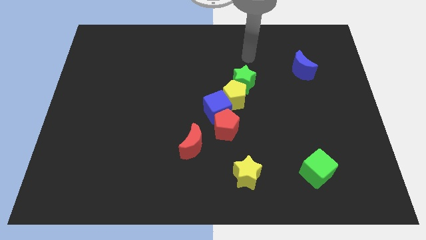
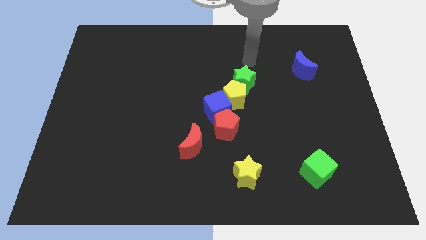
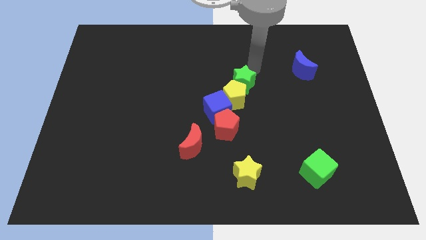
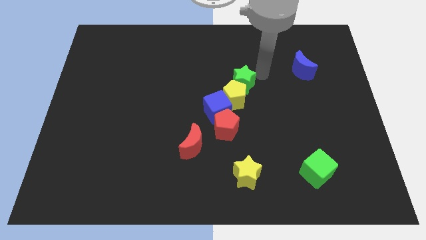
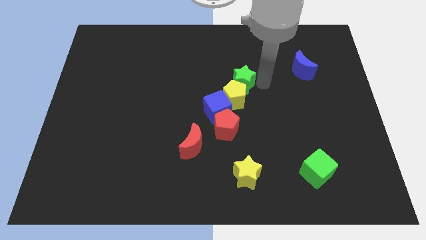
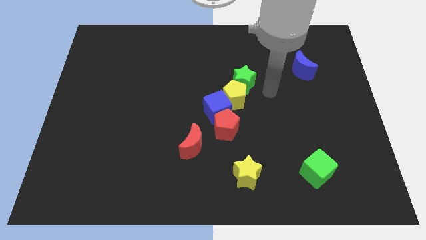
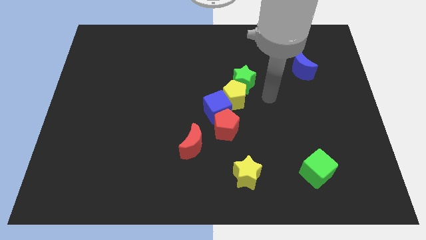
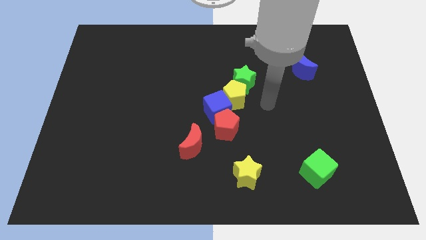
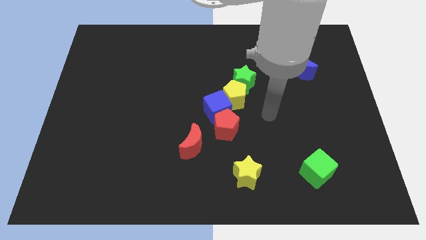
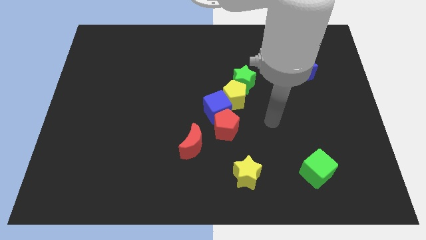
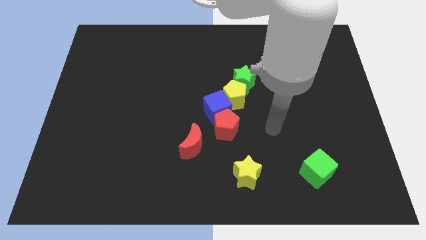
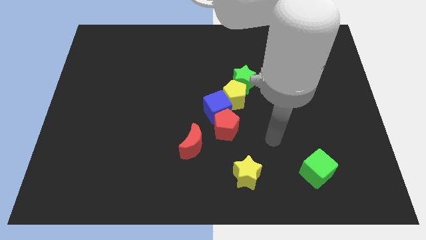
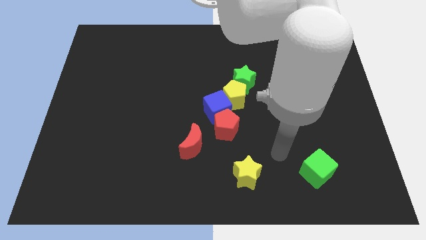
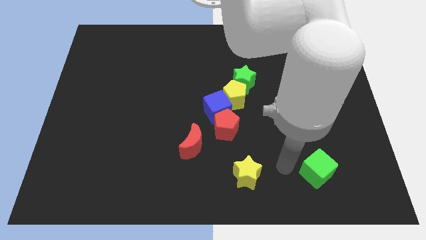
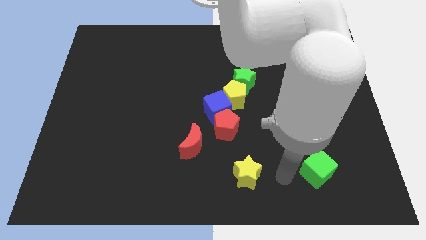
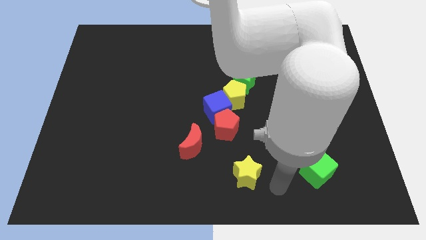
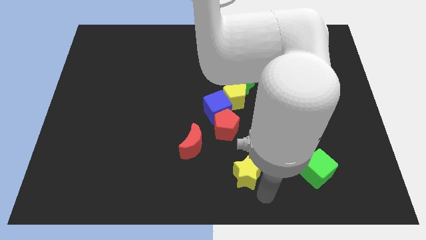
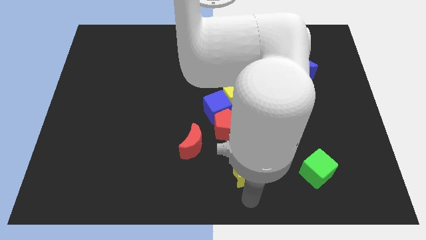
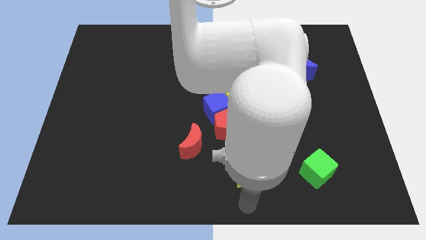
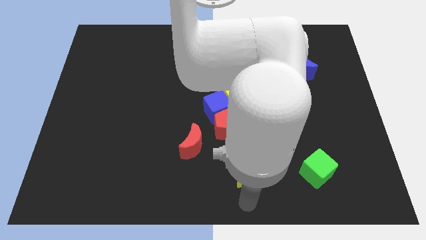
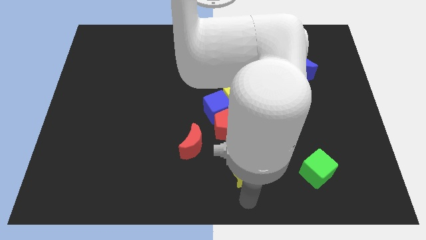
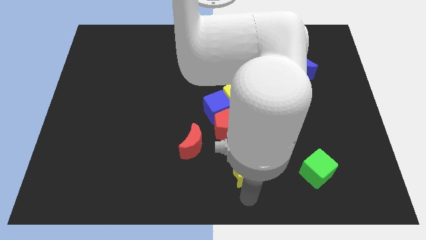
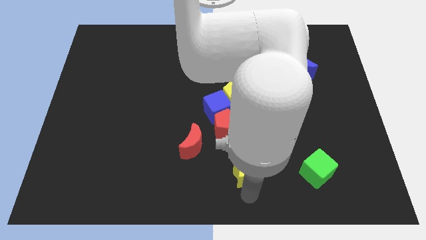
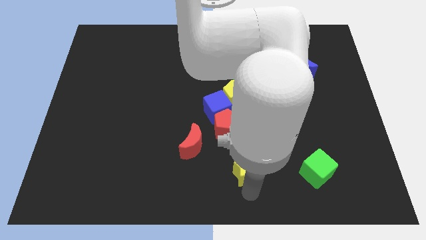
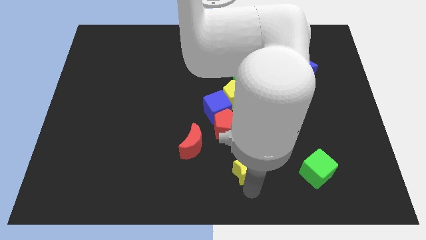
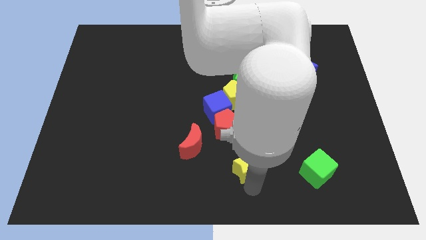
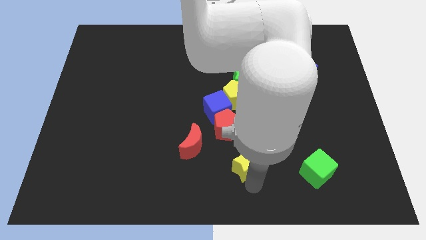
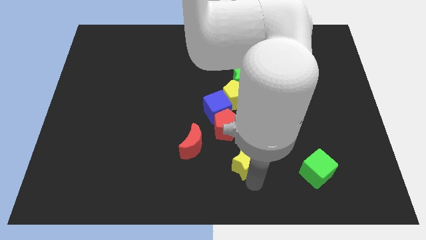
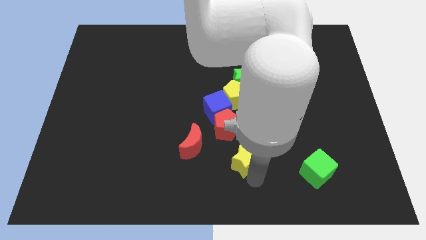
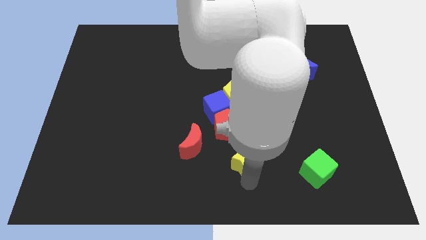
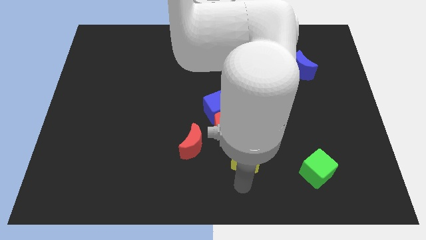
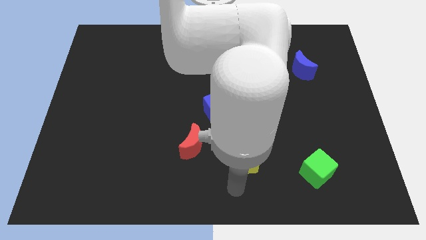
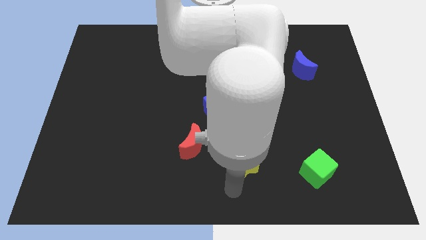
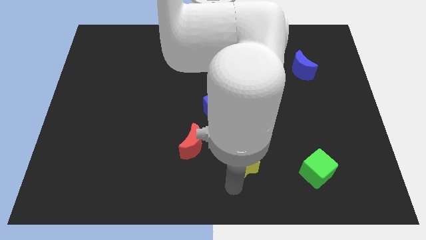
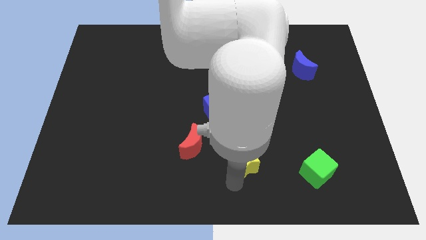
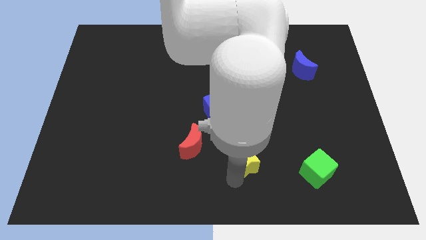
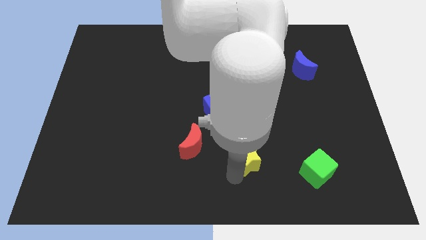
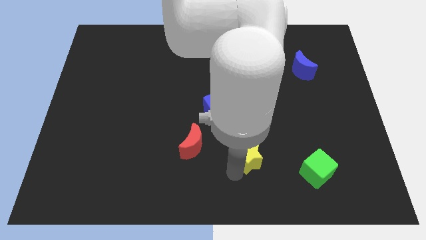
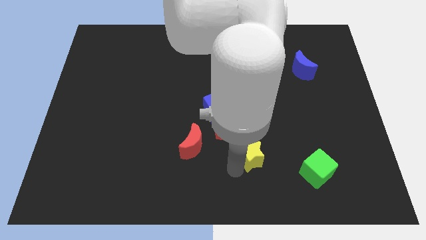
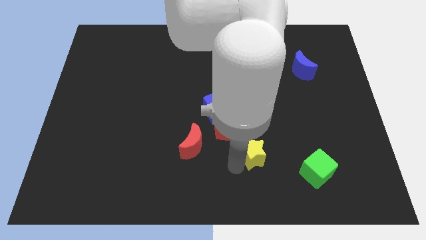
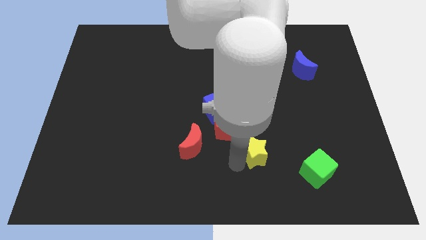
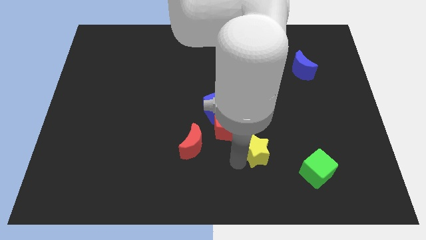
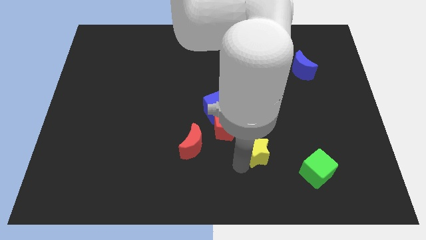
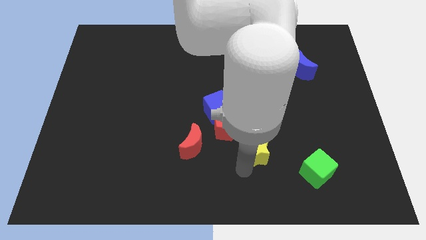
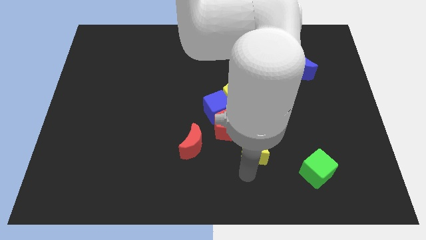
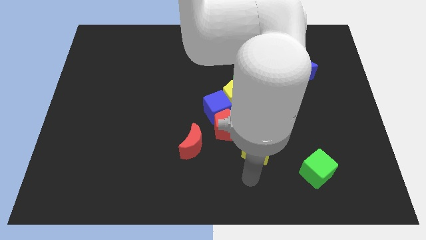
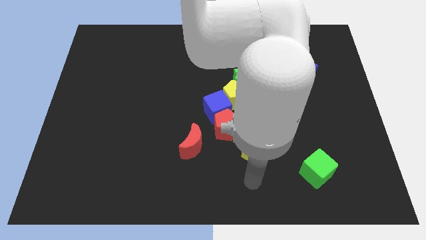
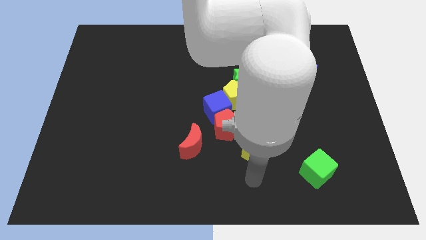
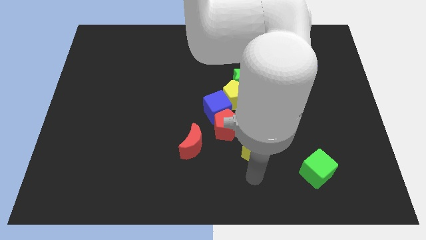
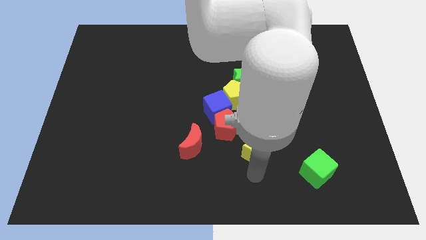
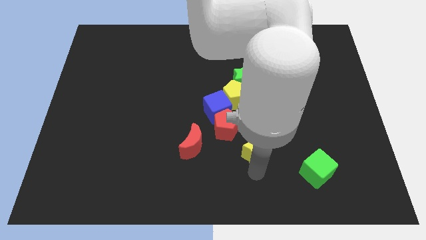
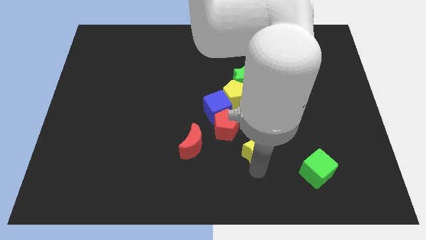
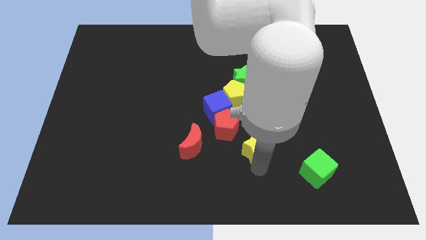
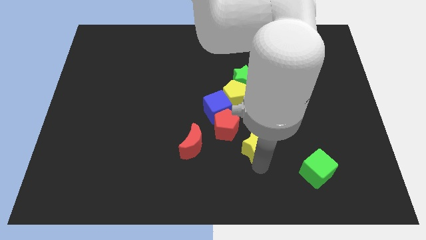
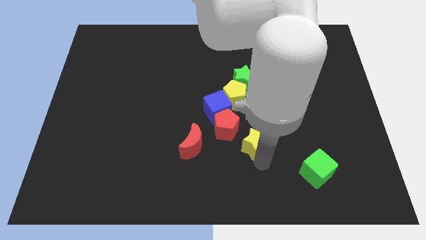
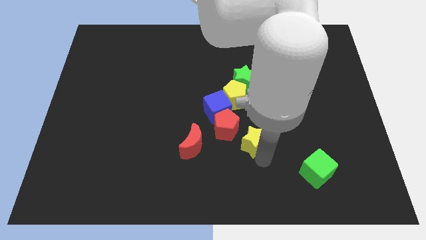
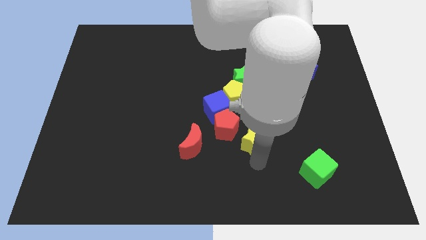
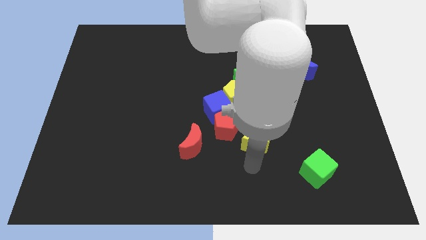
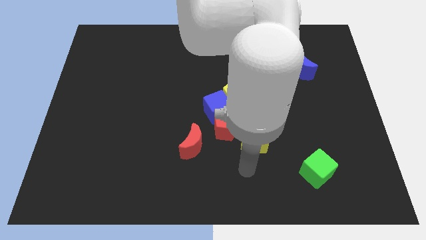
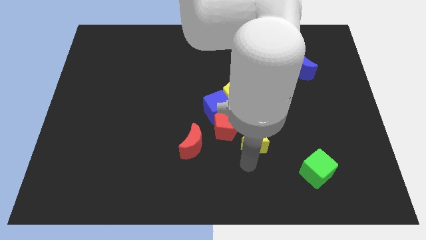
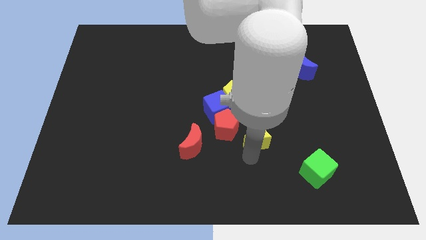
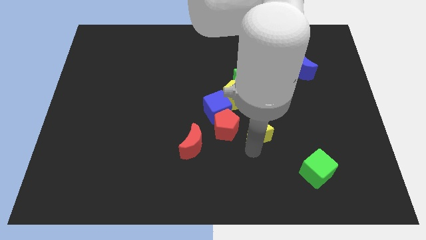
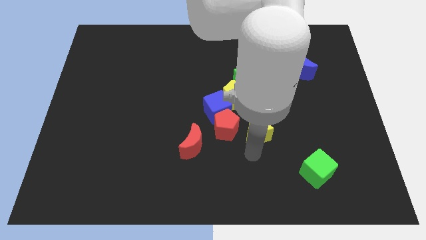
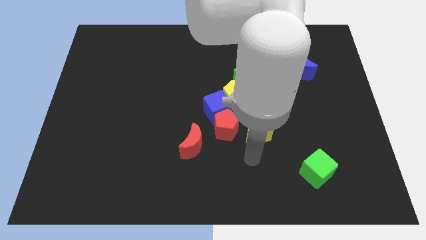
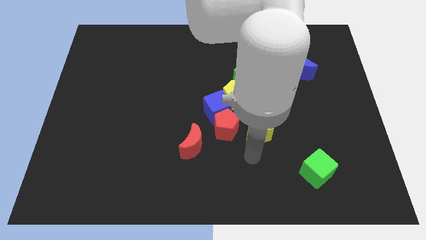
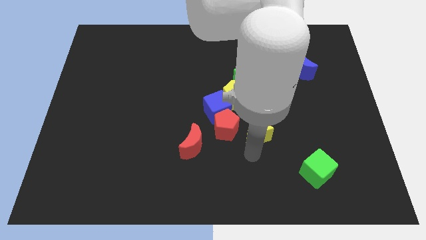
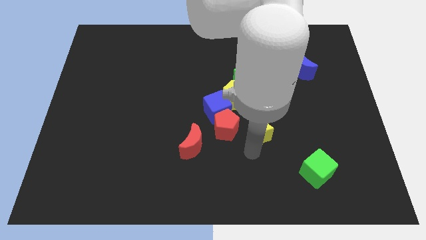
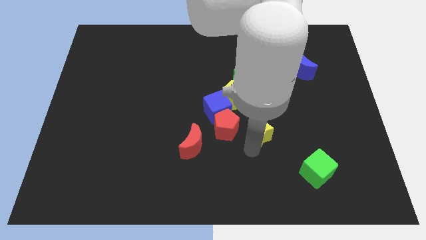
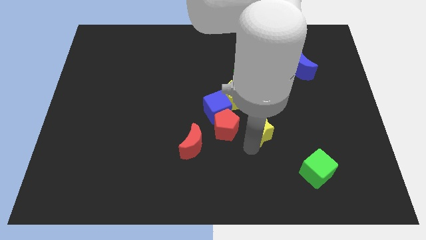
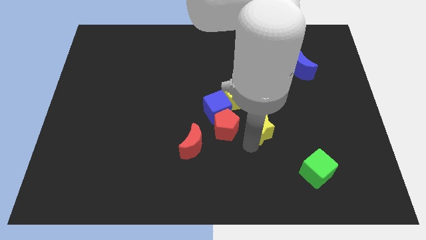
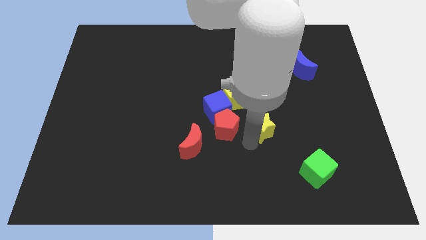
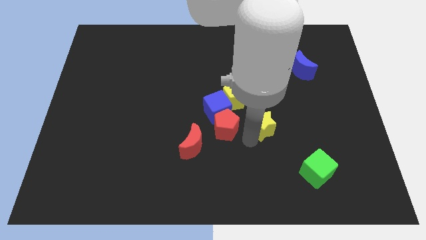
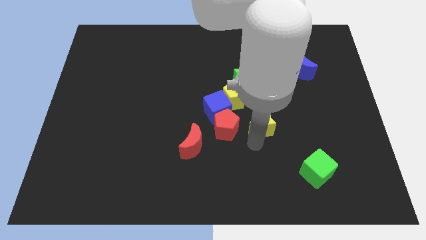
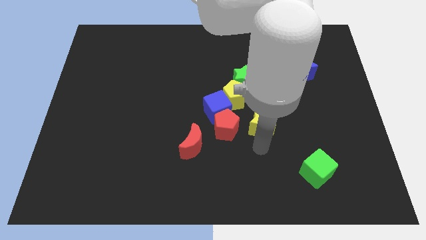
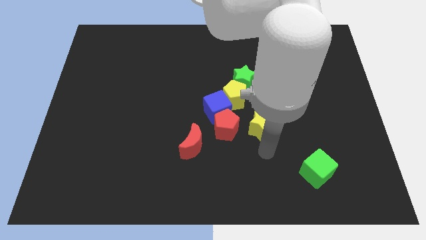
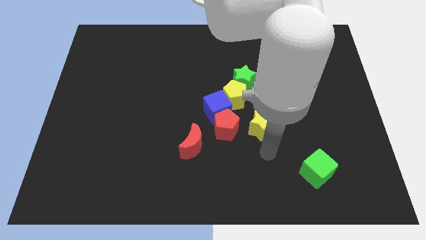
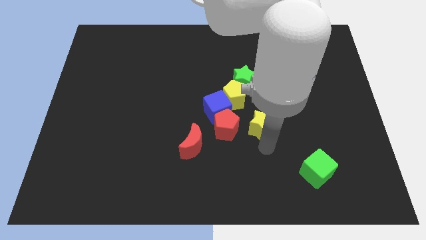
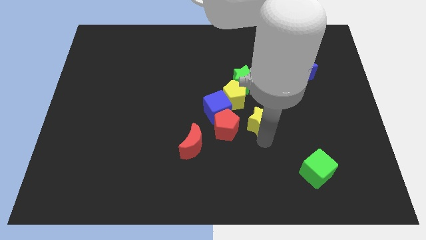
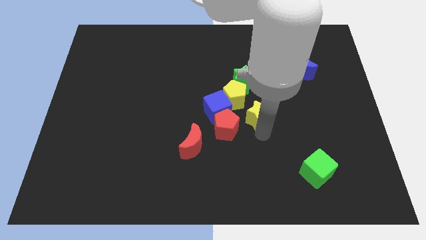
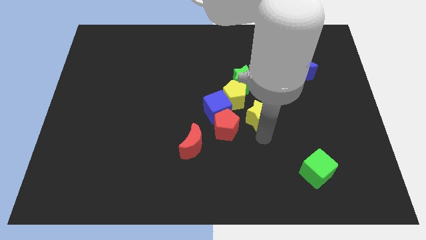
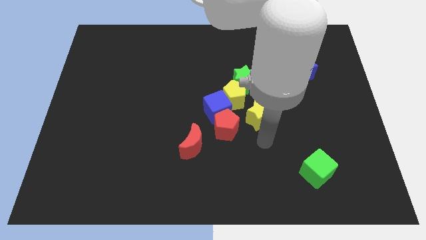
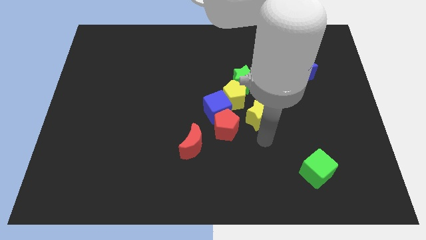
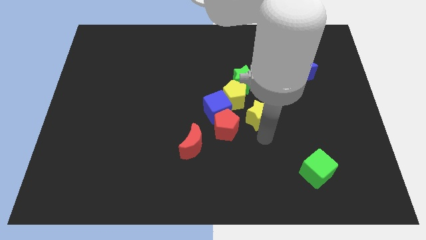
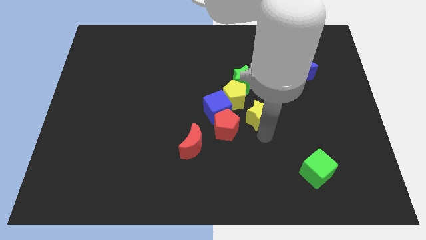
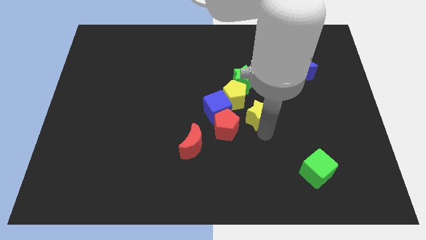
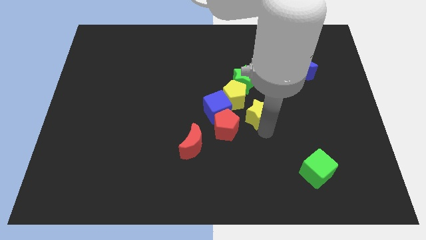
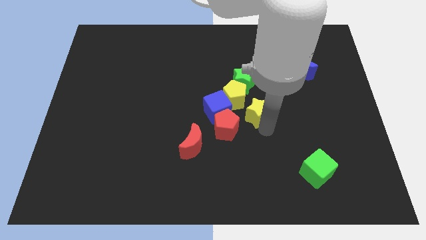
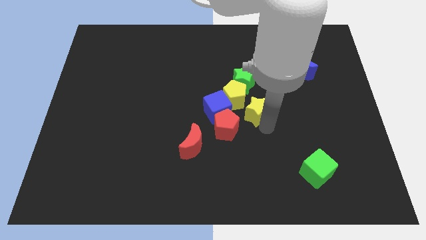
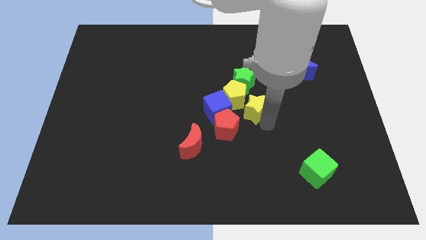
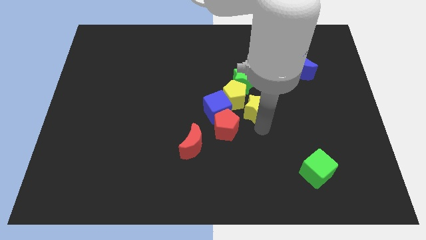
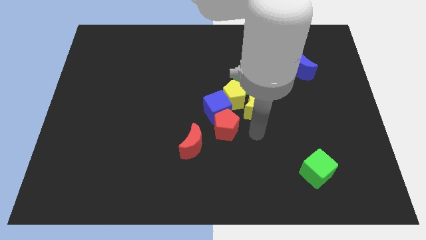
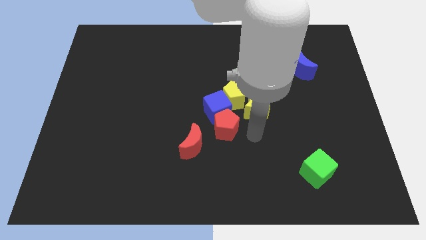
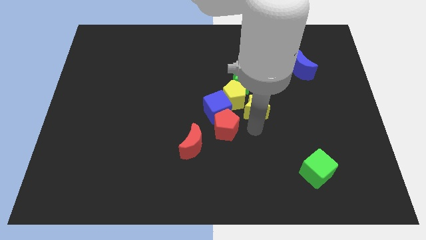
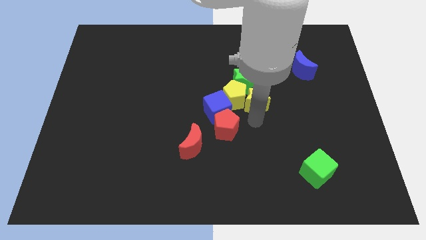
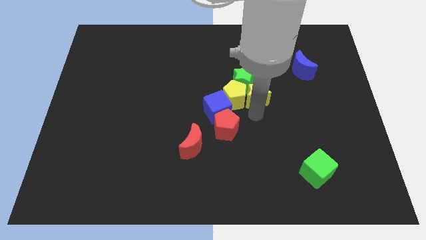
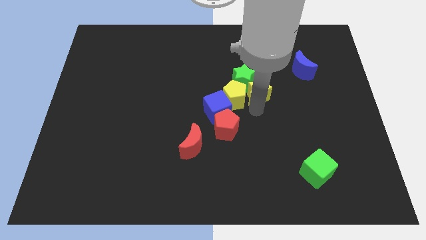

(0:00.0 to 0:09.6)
move the yellow star upwards
